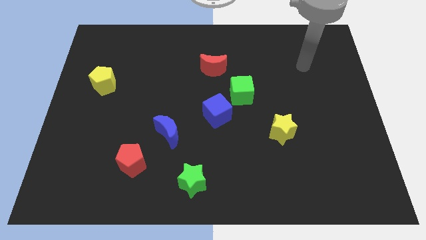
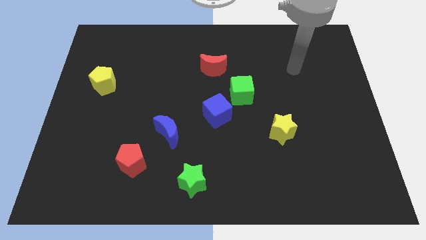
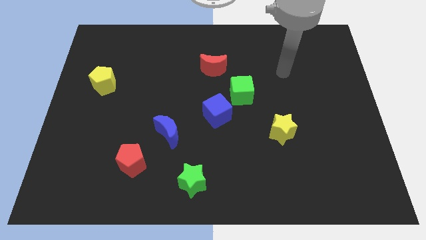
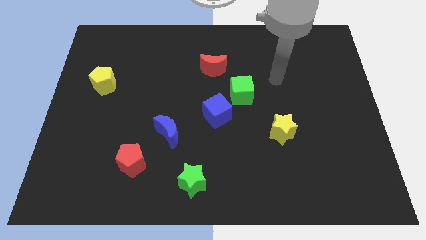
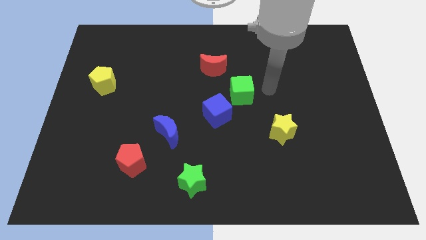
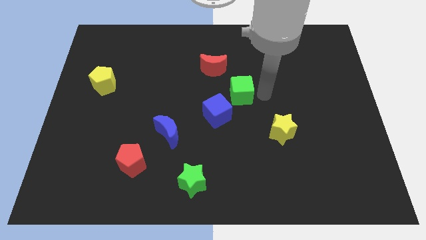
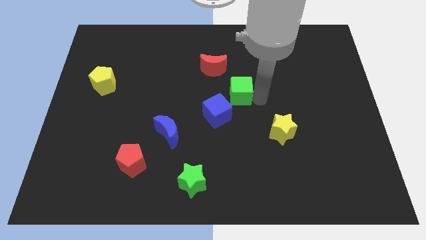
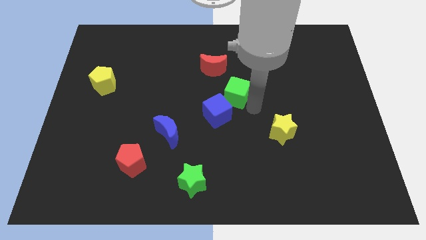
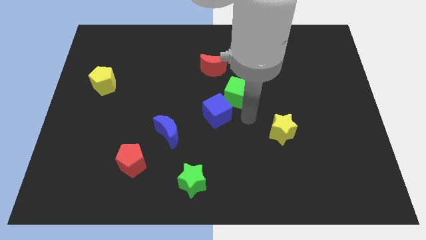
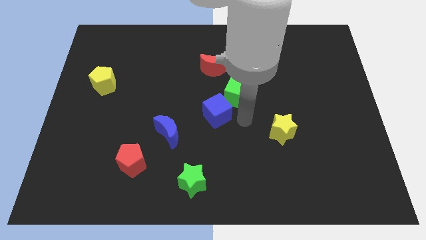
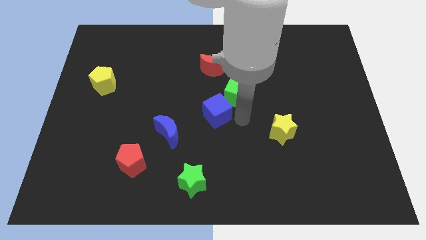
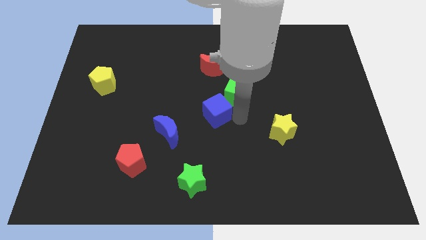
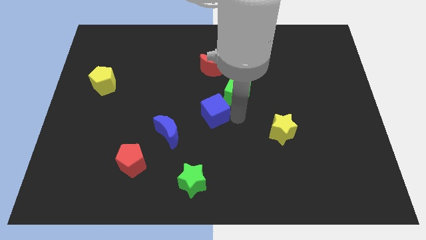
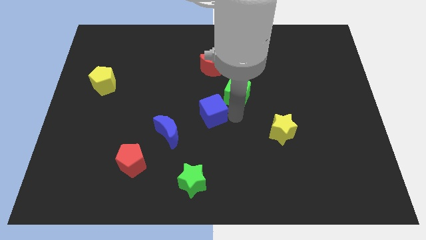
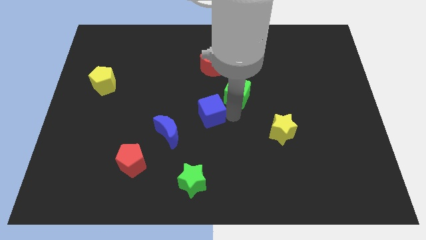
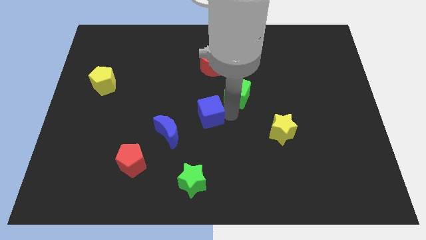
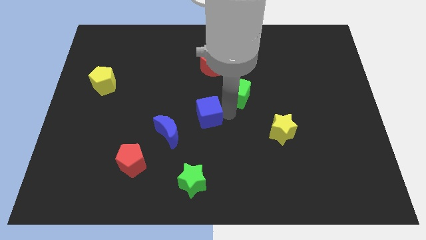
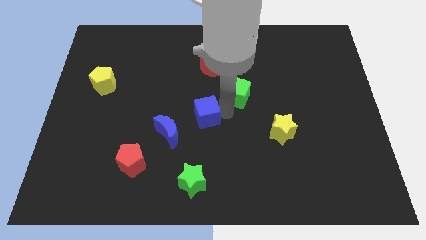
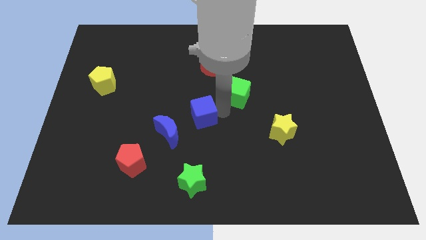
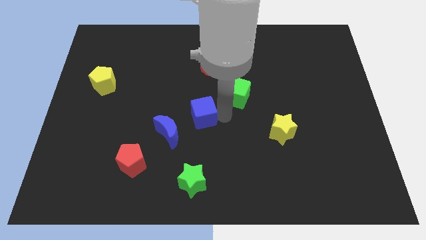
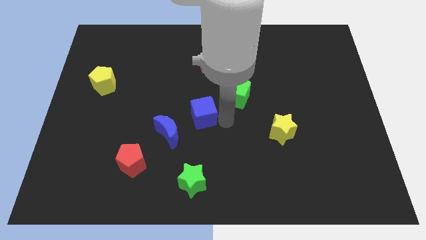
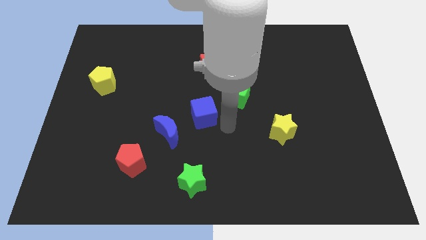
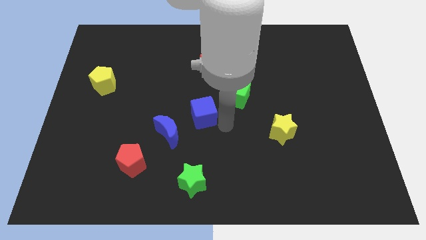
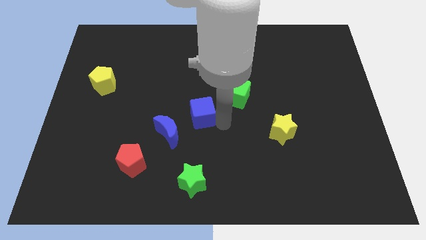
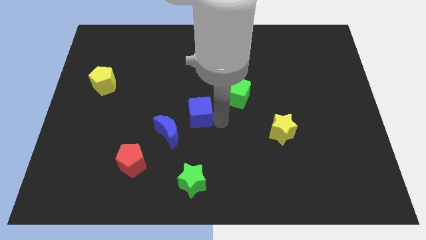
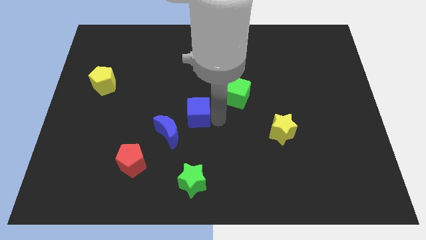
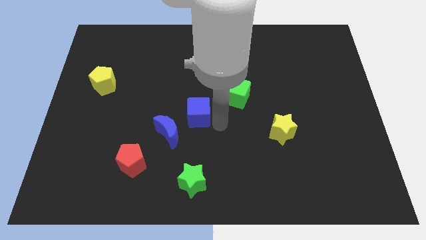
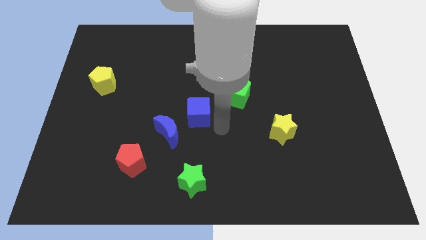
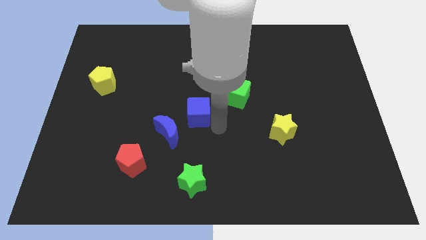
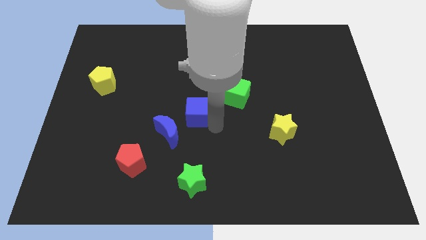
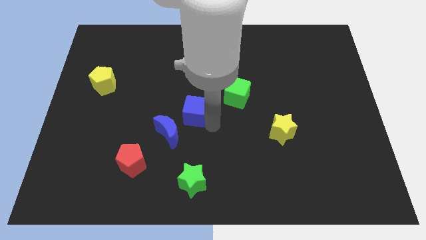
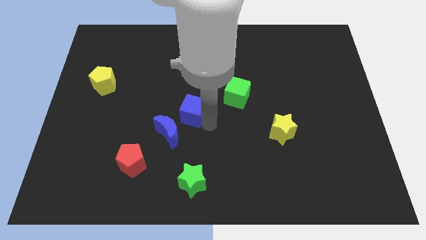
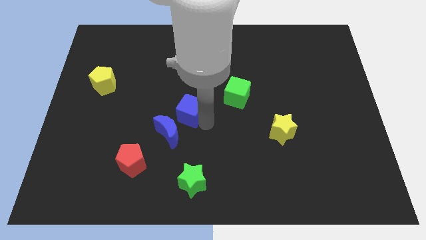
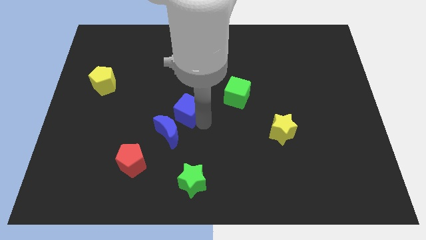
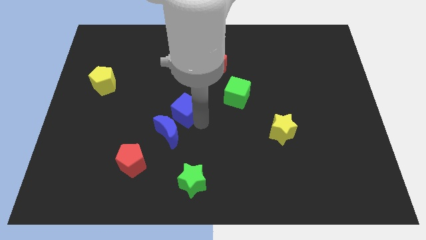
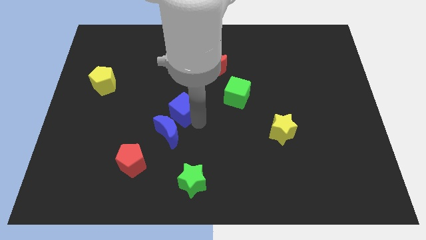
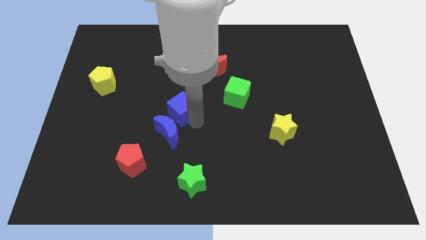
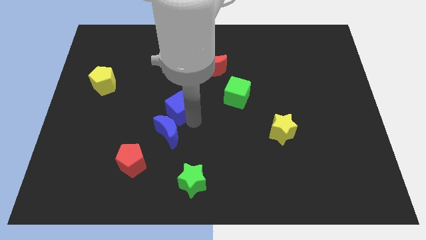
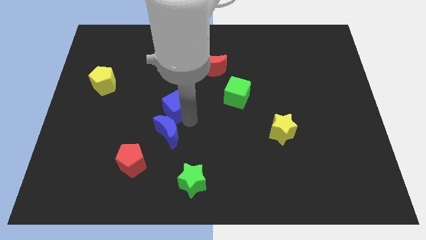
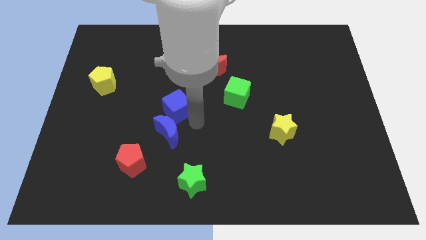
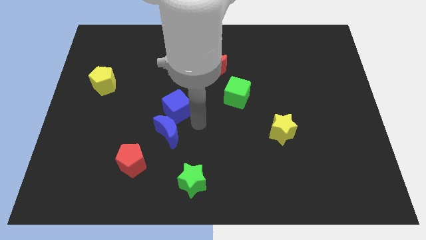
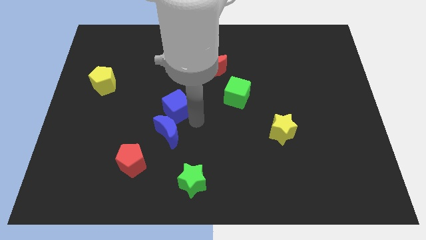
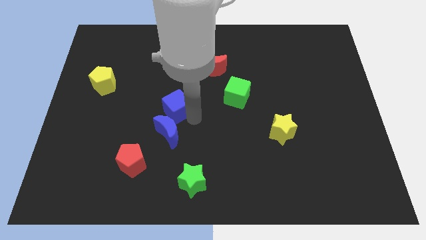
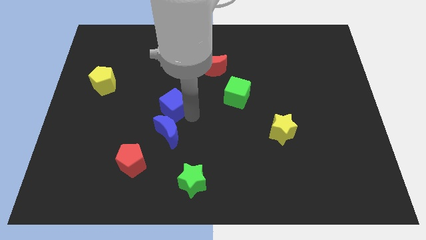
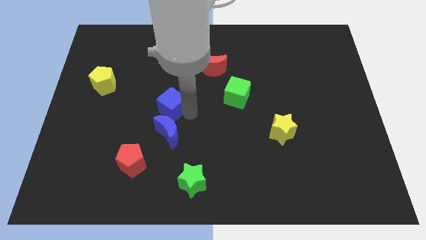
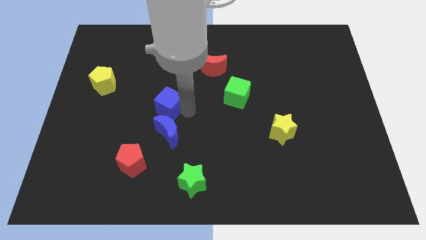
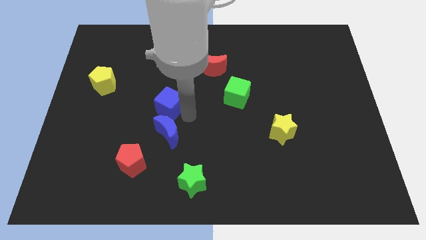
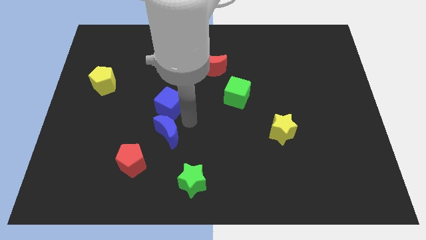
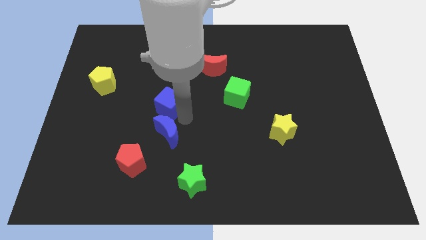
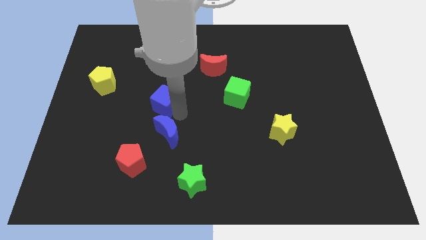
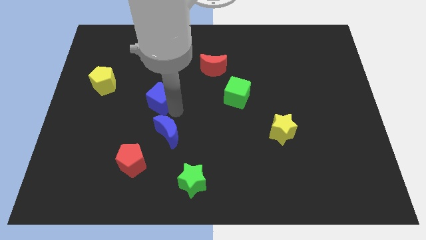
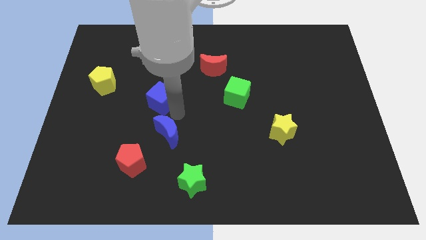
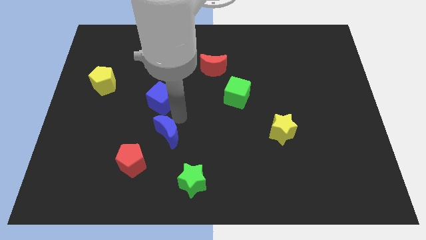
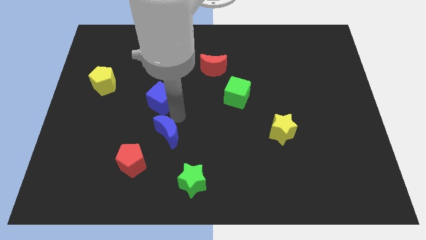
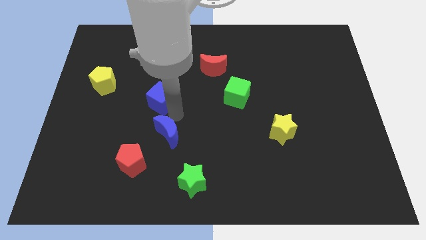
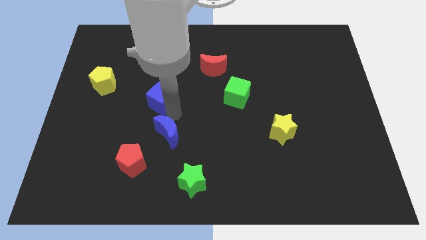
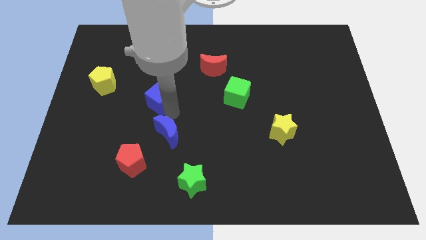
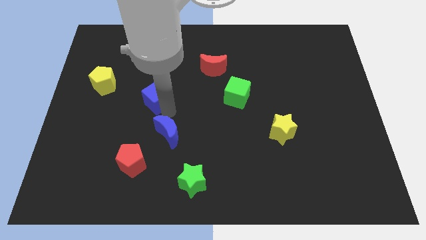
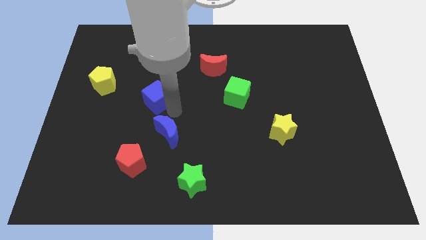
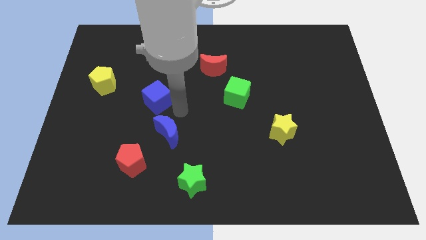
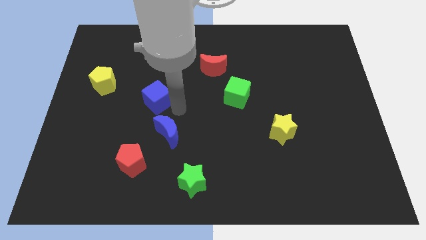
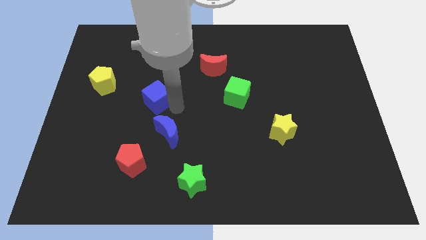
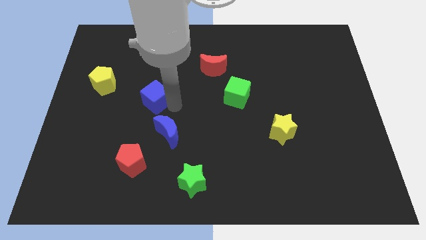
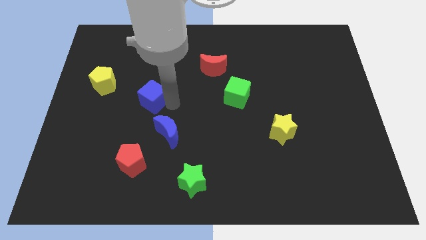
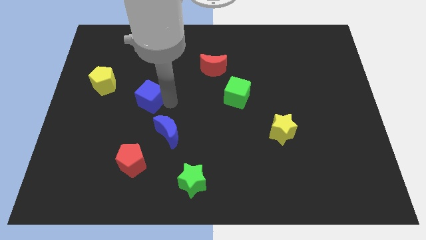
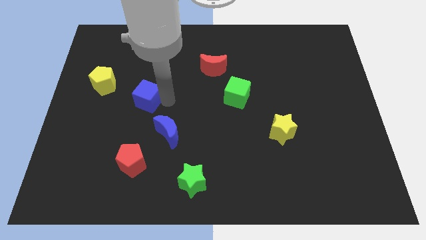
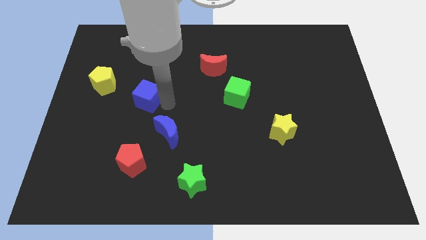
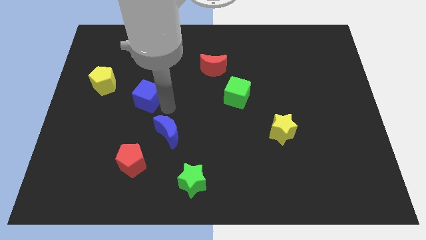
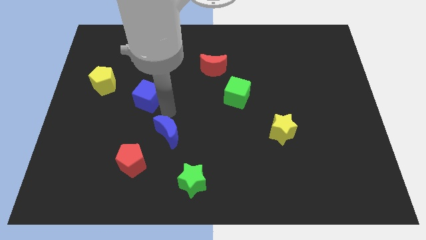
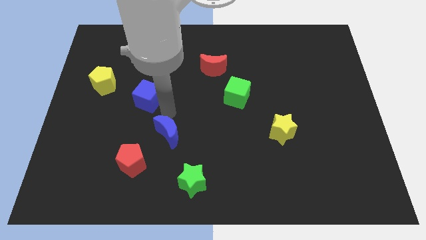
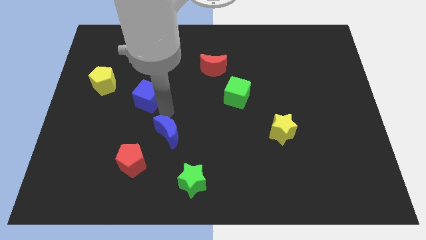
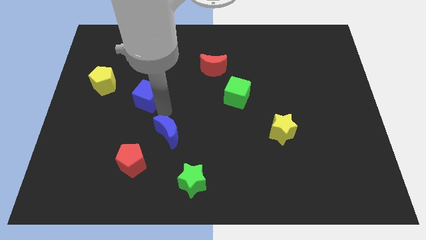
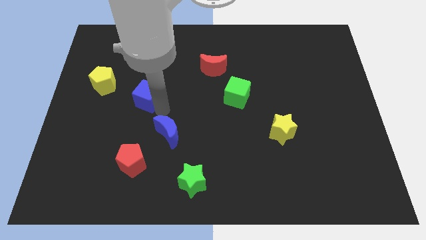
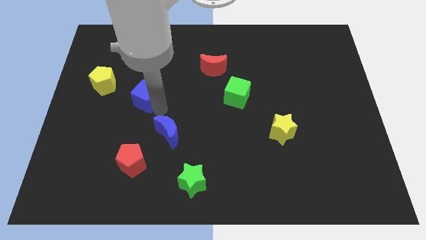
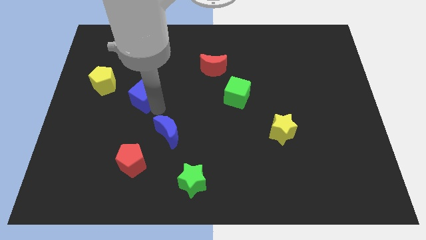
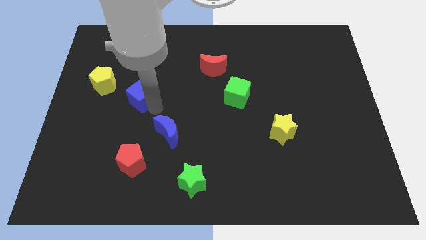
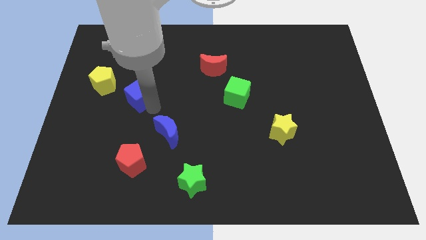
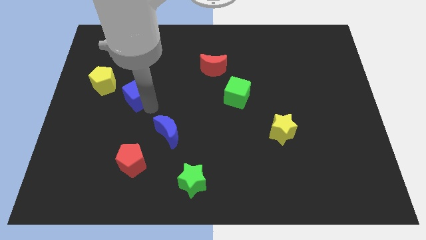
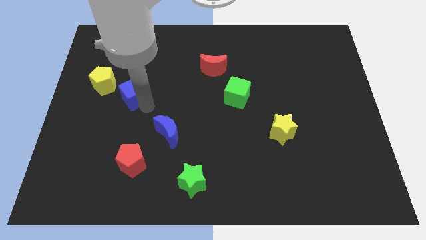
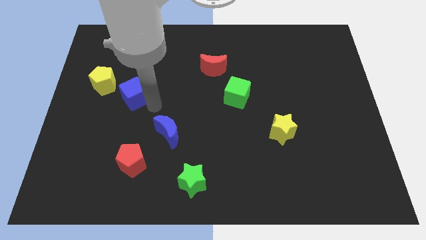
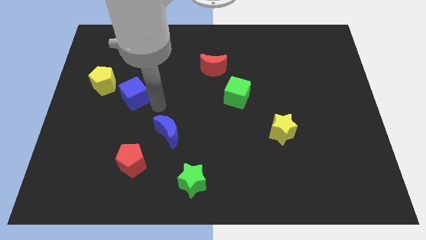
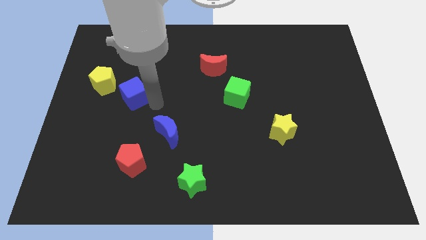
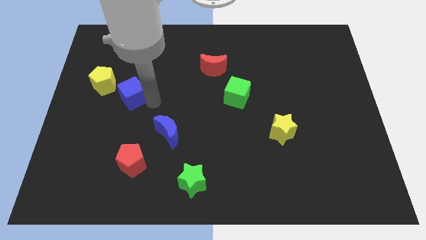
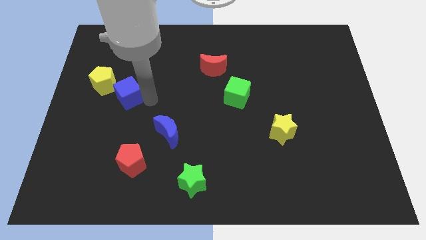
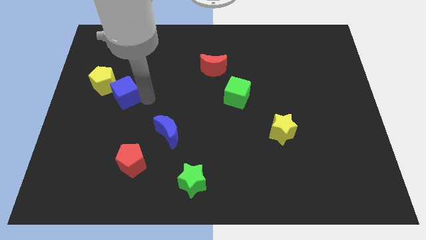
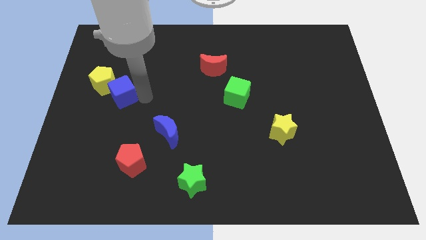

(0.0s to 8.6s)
push the blue cube next to the yellow pentagon
